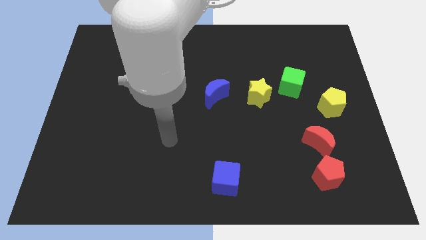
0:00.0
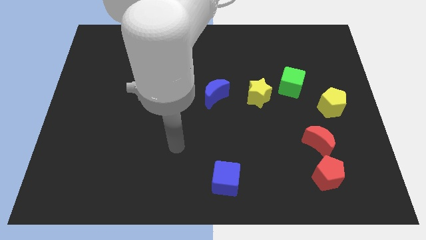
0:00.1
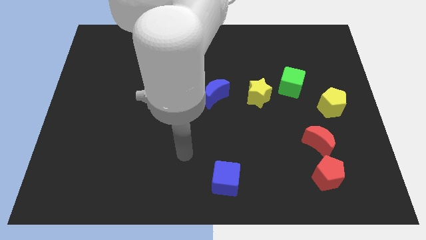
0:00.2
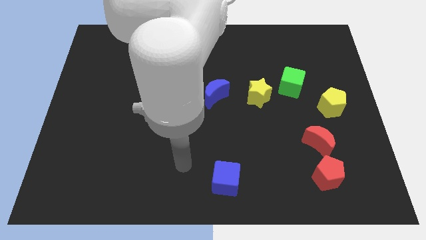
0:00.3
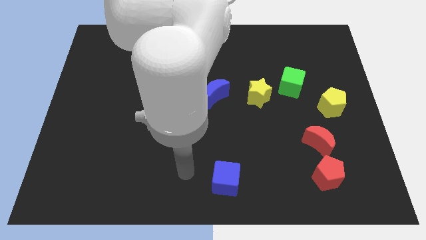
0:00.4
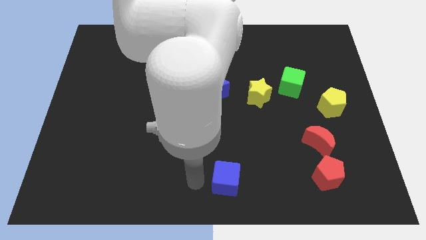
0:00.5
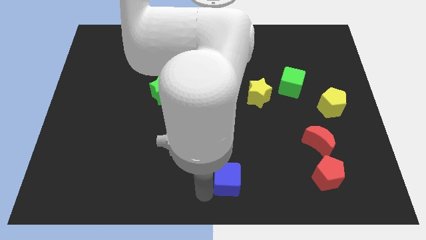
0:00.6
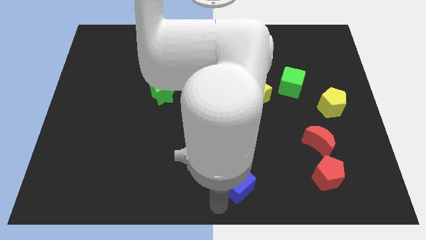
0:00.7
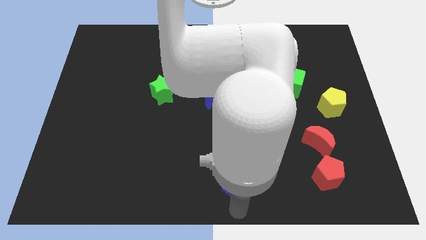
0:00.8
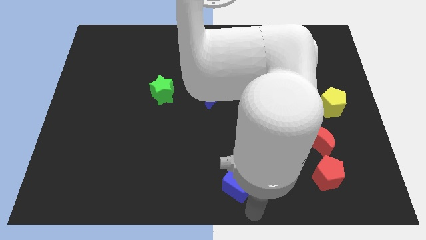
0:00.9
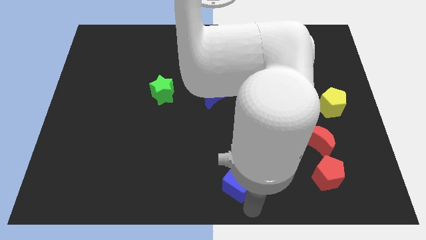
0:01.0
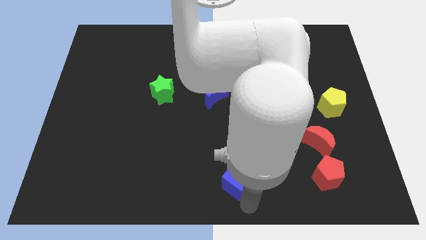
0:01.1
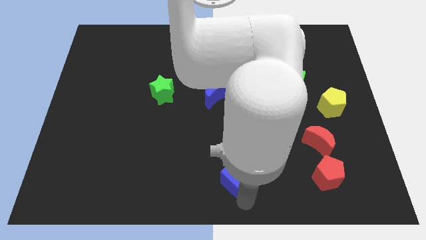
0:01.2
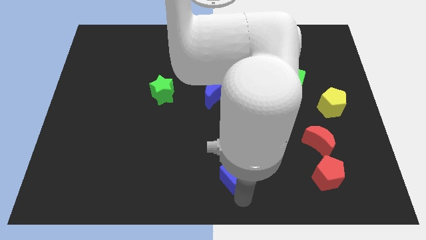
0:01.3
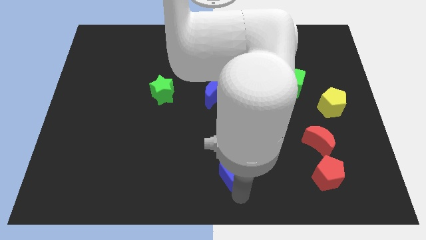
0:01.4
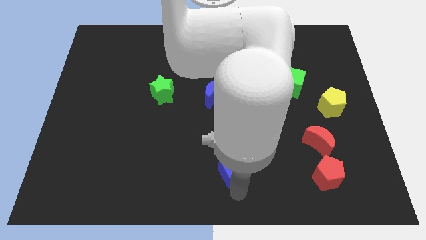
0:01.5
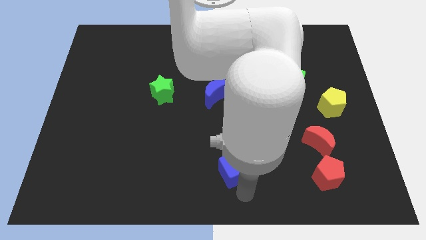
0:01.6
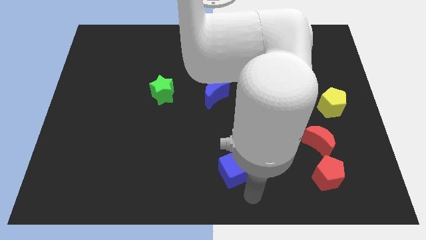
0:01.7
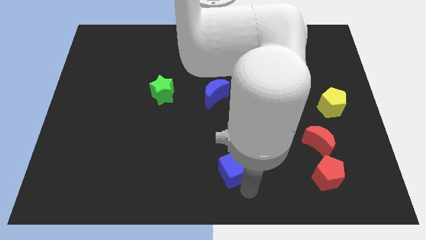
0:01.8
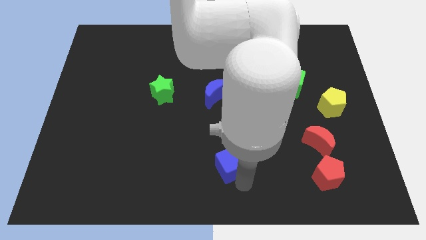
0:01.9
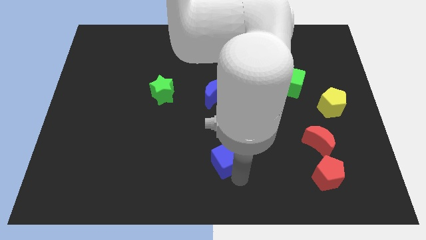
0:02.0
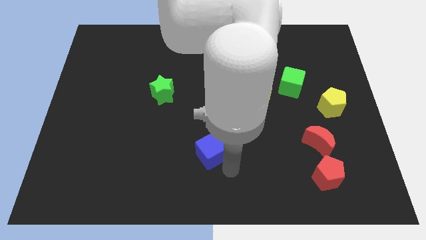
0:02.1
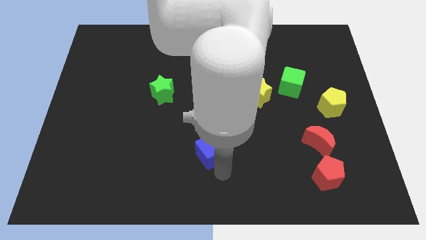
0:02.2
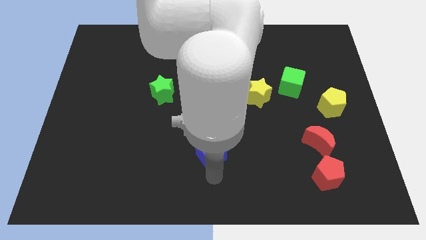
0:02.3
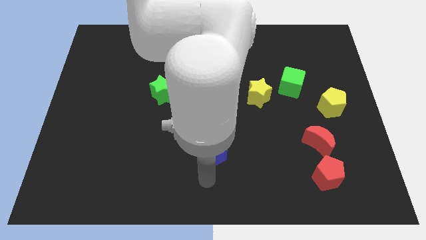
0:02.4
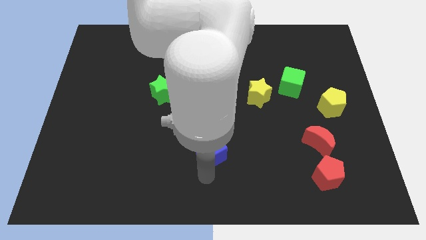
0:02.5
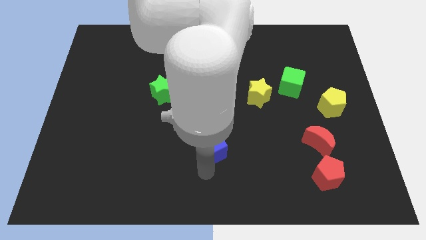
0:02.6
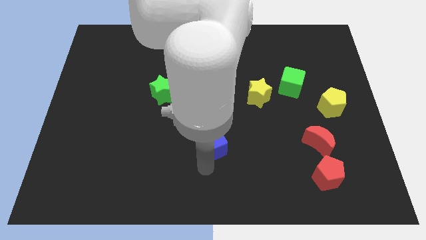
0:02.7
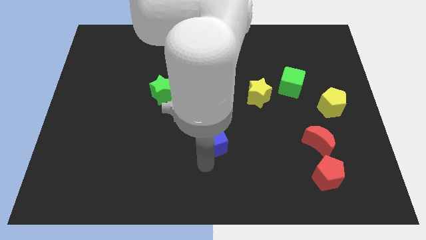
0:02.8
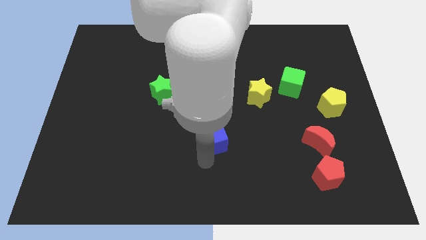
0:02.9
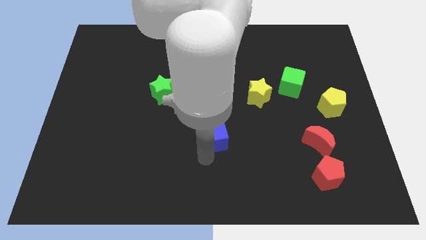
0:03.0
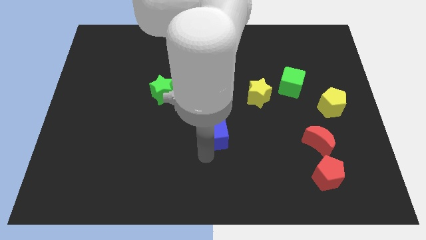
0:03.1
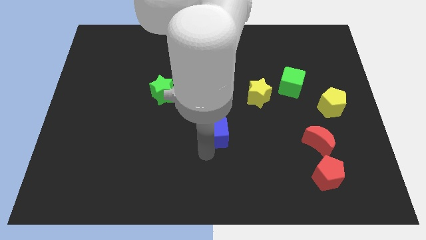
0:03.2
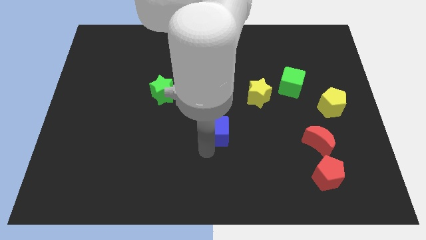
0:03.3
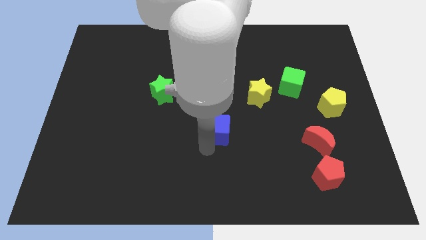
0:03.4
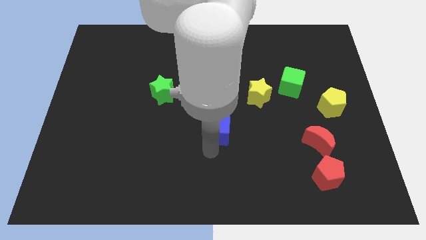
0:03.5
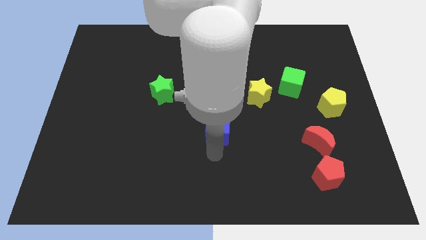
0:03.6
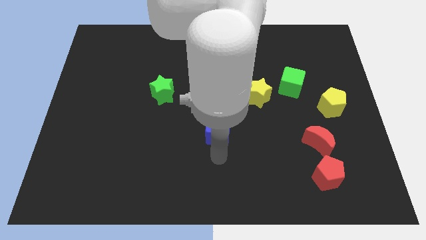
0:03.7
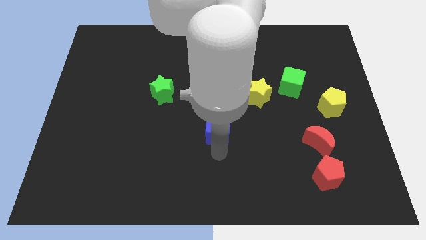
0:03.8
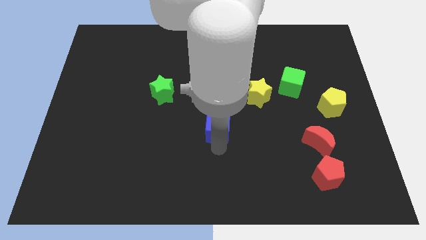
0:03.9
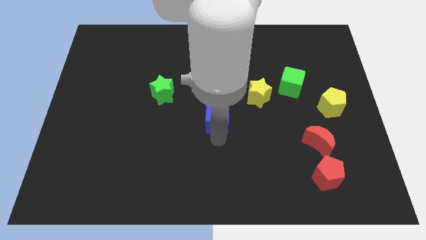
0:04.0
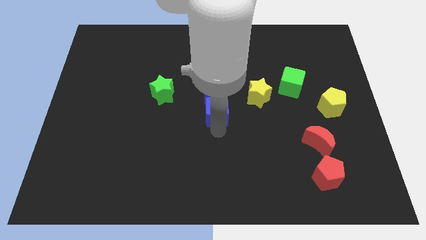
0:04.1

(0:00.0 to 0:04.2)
move the blue cube next to the blue moon

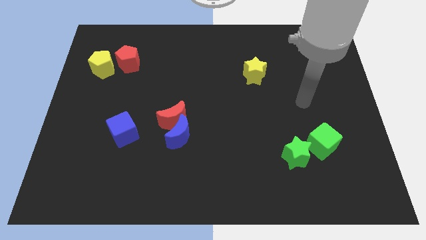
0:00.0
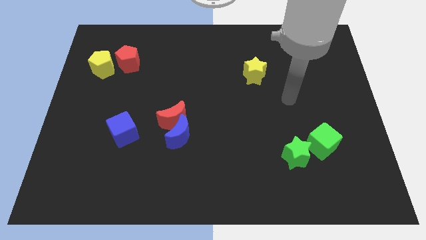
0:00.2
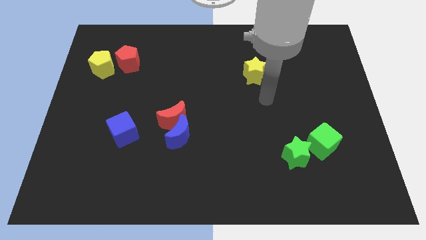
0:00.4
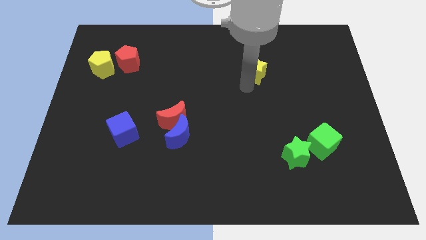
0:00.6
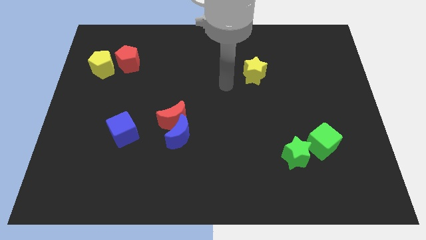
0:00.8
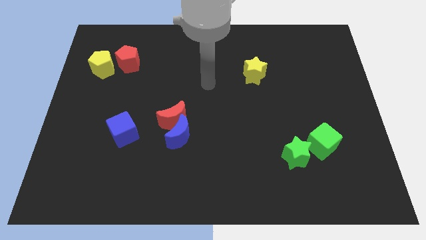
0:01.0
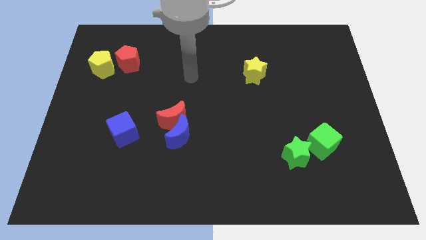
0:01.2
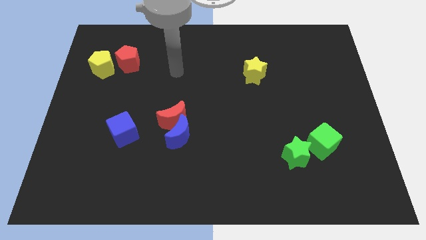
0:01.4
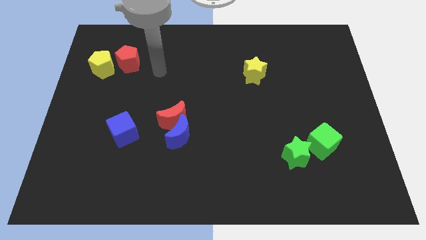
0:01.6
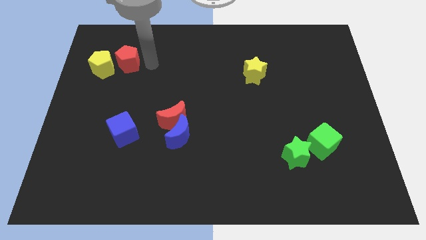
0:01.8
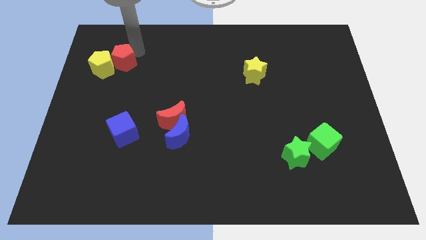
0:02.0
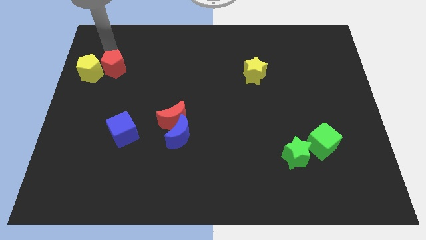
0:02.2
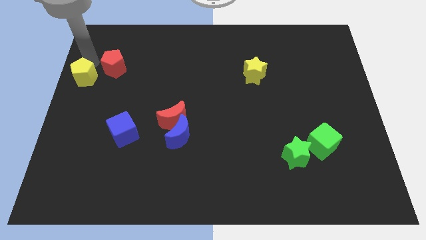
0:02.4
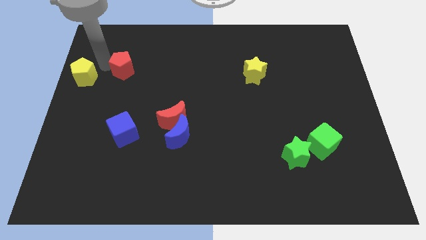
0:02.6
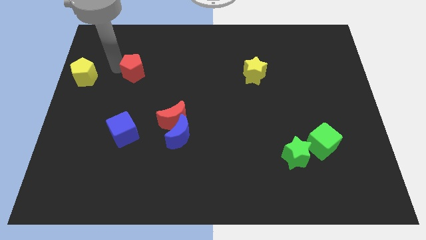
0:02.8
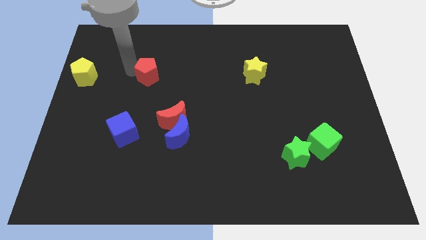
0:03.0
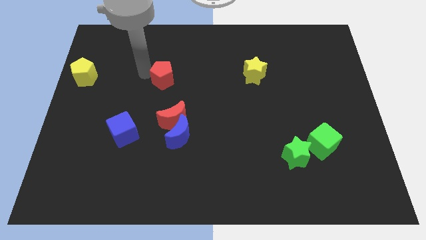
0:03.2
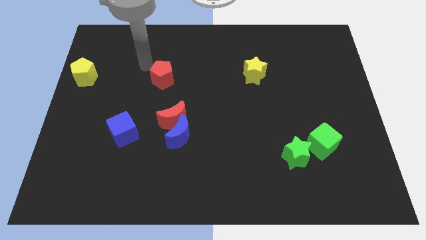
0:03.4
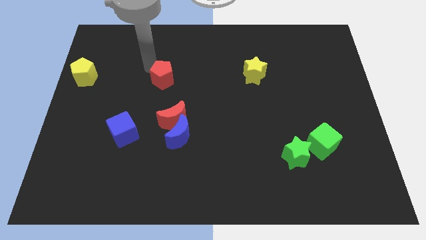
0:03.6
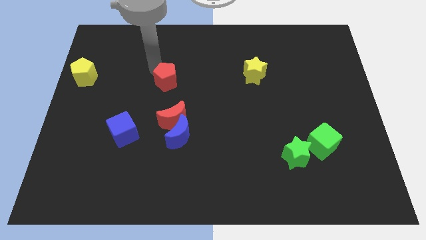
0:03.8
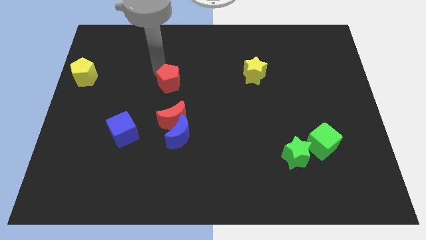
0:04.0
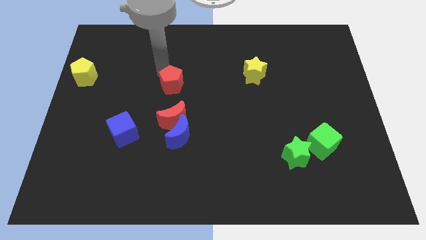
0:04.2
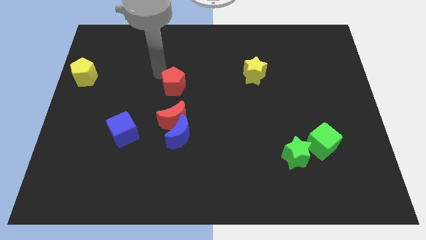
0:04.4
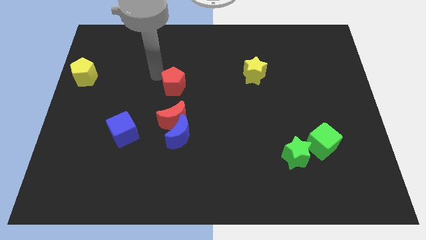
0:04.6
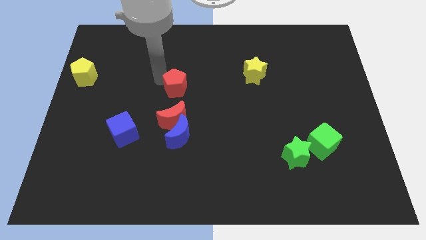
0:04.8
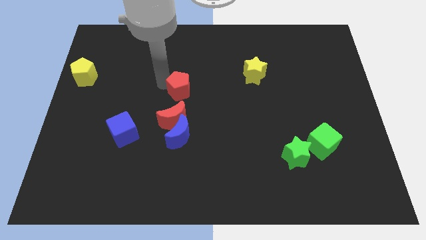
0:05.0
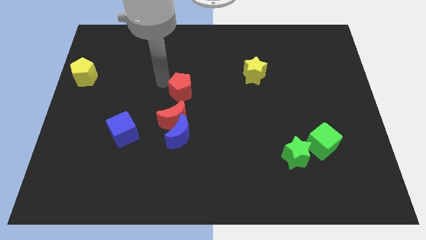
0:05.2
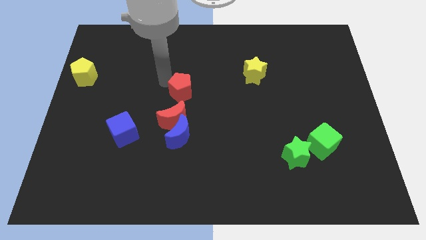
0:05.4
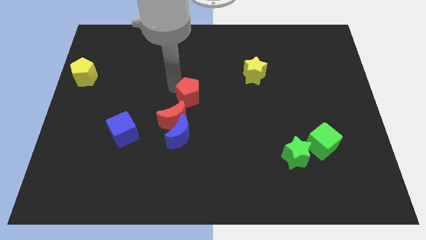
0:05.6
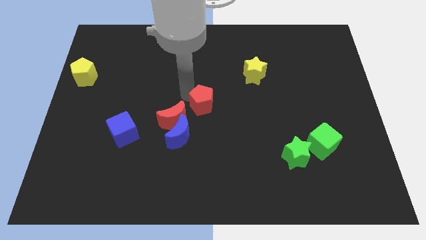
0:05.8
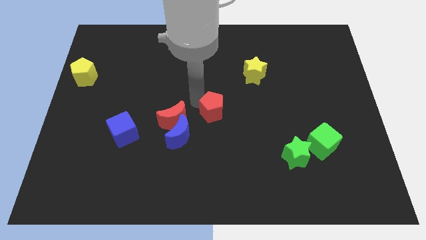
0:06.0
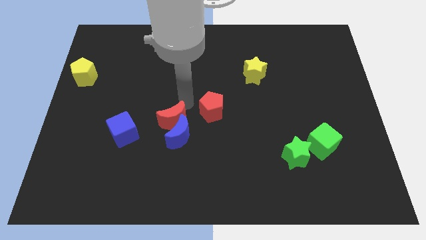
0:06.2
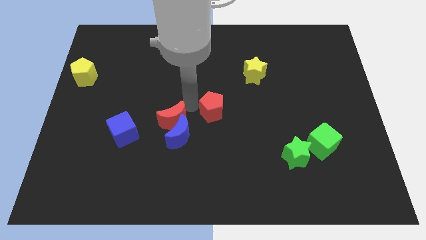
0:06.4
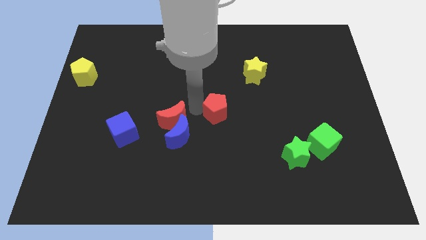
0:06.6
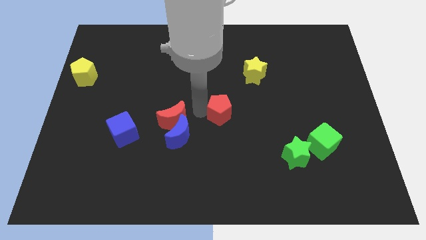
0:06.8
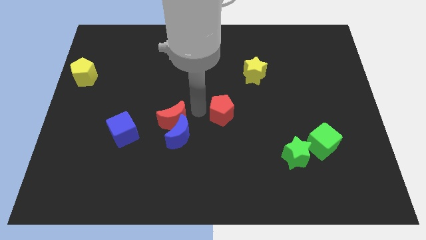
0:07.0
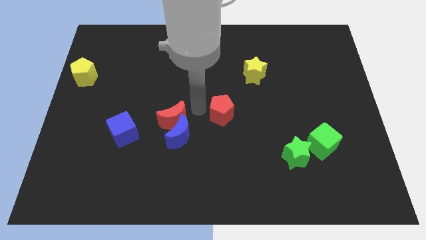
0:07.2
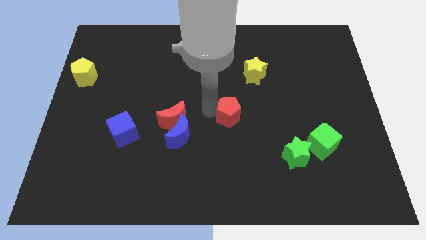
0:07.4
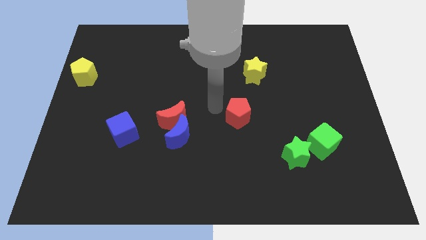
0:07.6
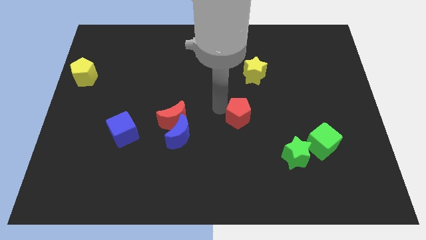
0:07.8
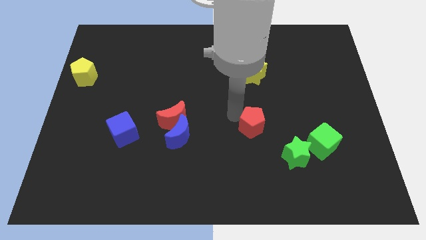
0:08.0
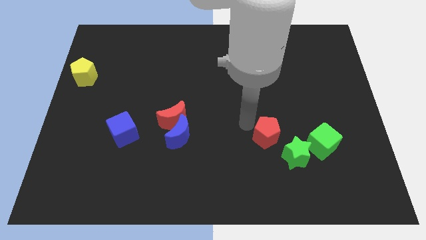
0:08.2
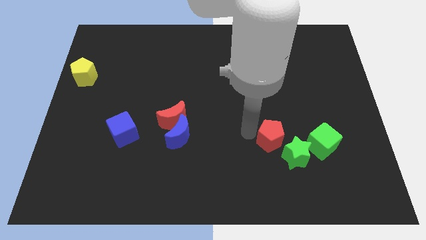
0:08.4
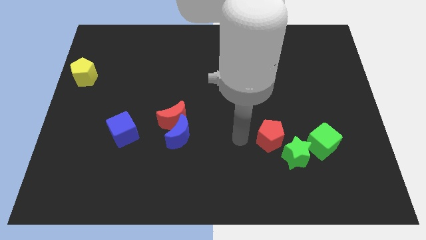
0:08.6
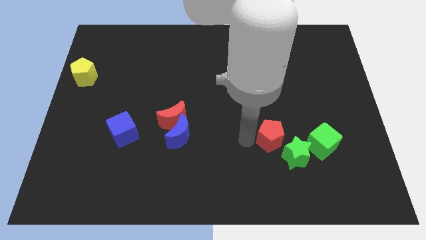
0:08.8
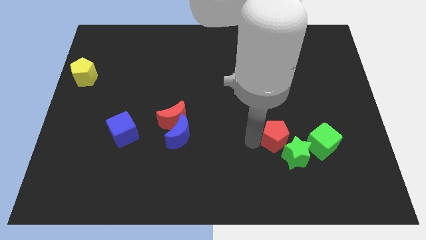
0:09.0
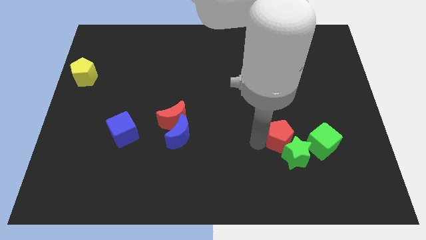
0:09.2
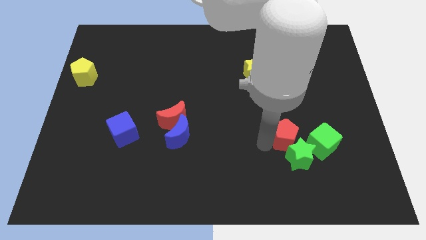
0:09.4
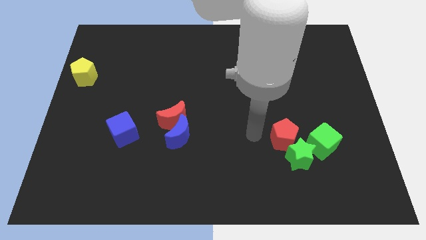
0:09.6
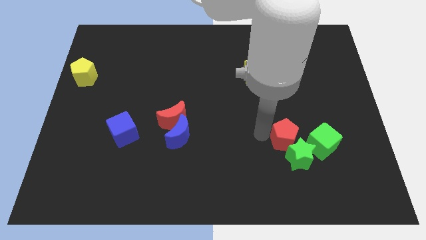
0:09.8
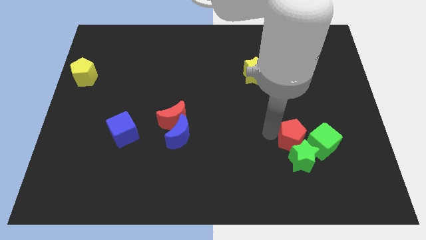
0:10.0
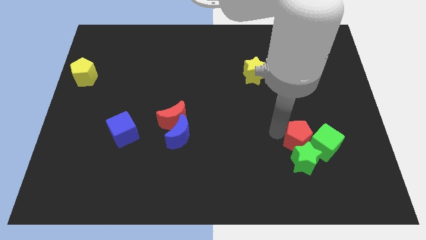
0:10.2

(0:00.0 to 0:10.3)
push the red pentagon next to the green cube
